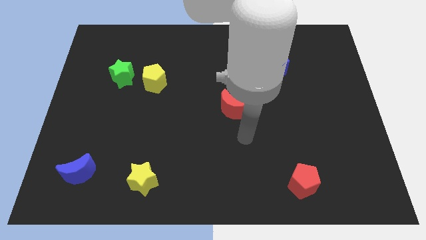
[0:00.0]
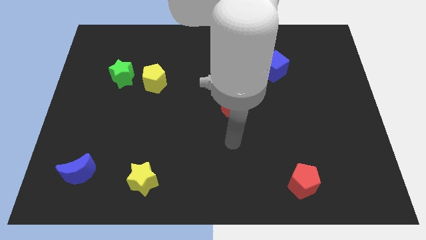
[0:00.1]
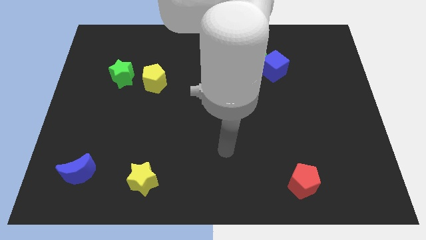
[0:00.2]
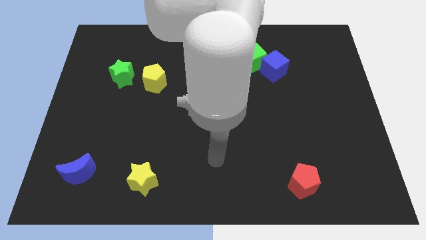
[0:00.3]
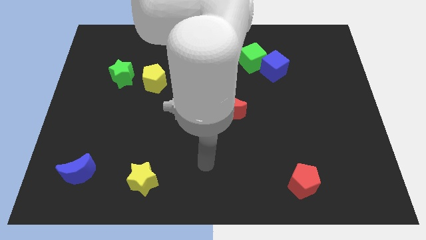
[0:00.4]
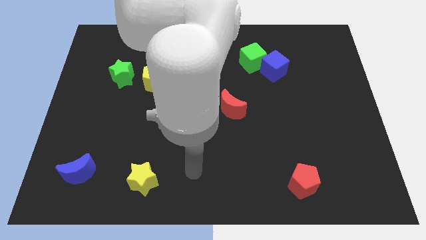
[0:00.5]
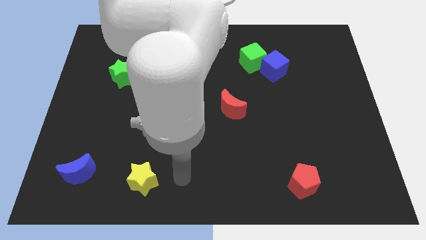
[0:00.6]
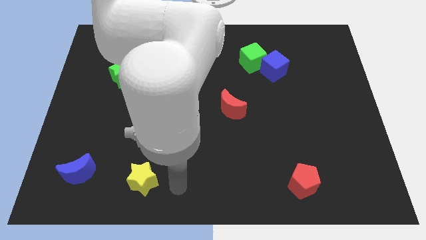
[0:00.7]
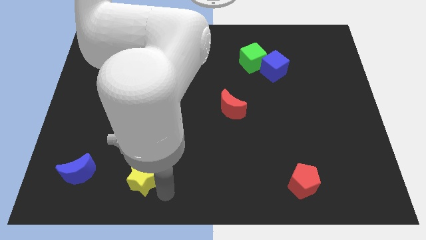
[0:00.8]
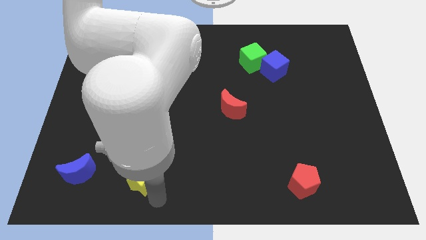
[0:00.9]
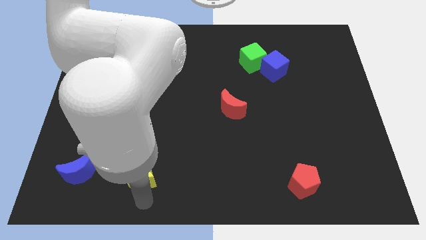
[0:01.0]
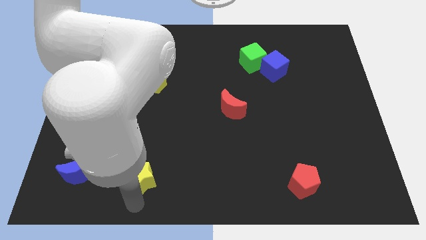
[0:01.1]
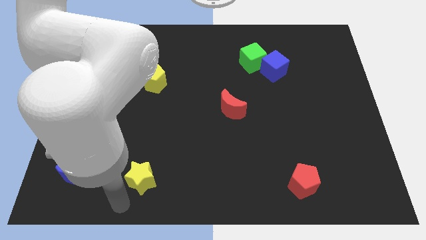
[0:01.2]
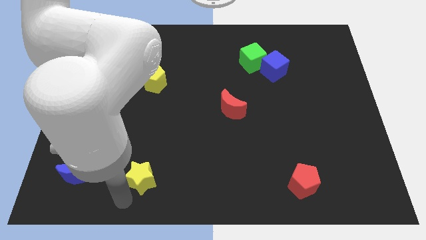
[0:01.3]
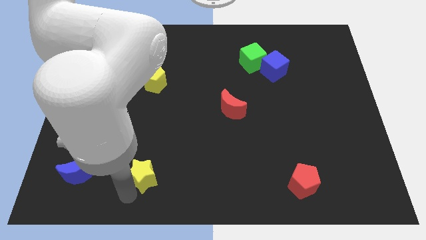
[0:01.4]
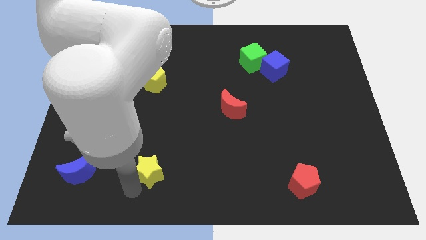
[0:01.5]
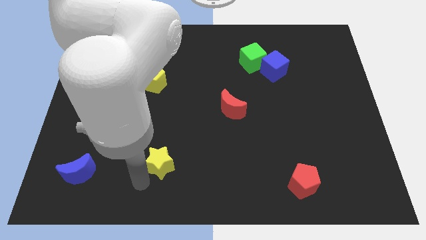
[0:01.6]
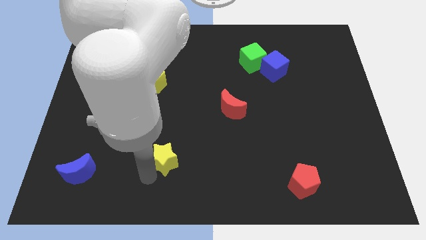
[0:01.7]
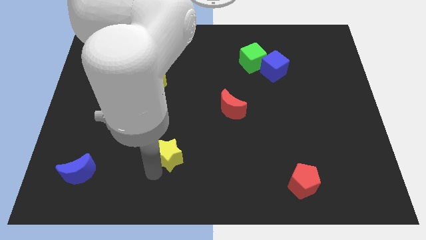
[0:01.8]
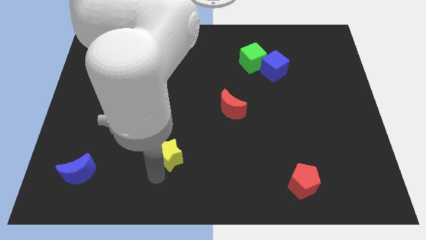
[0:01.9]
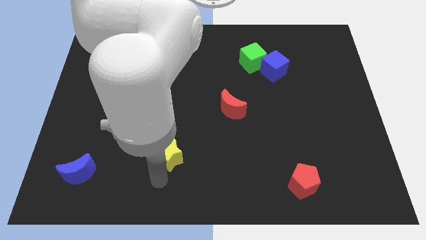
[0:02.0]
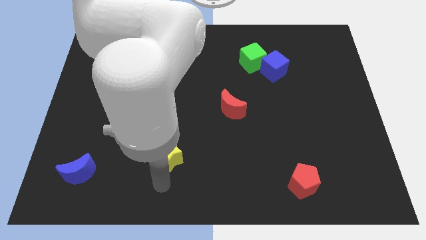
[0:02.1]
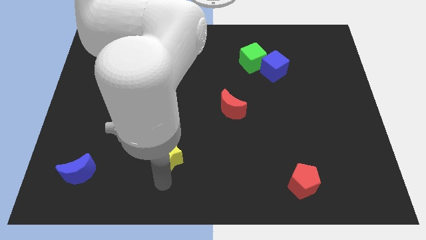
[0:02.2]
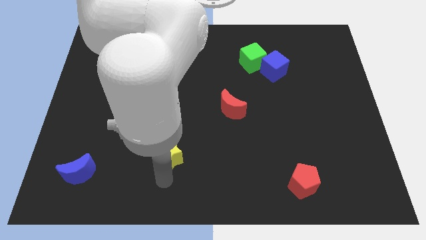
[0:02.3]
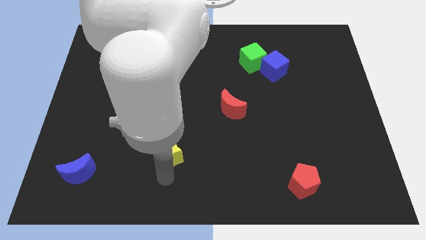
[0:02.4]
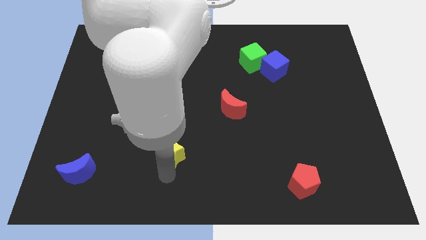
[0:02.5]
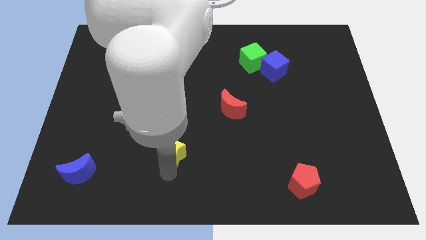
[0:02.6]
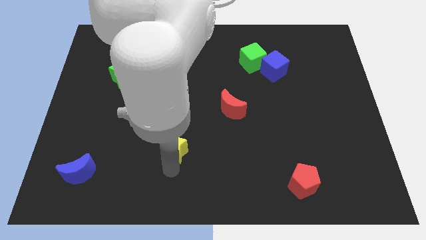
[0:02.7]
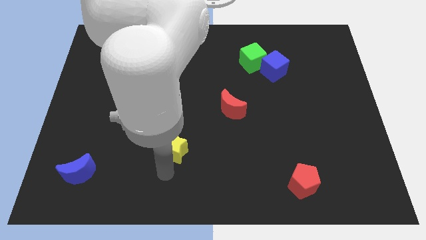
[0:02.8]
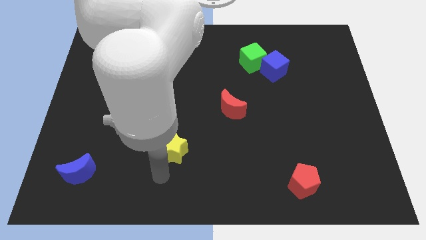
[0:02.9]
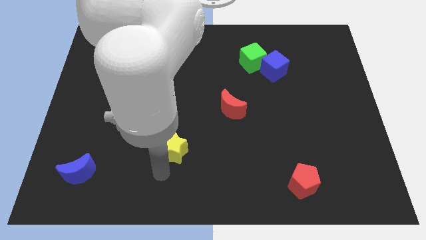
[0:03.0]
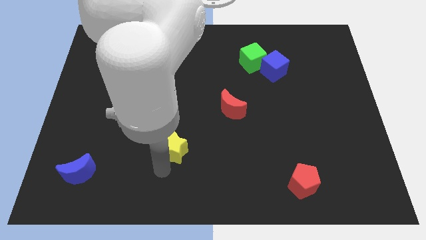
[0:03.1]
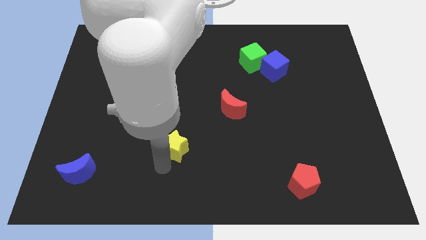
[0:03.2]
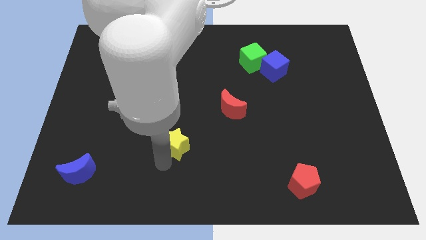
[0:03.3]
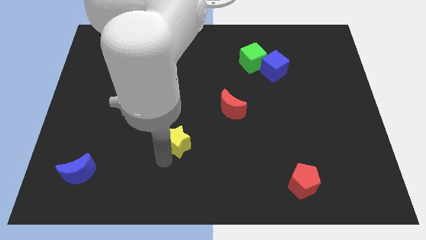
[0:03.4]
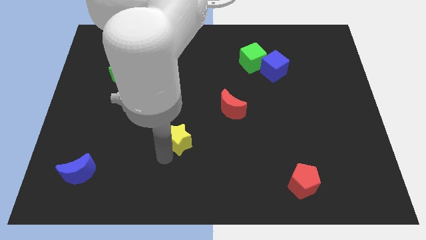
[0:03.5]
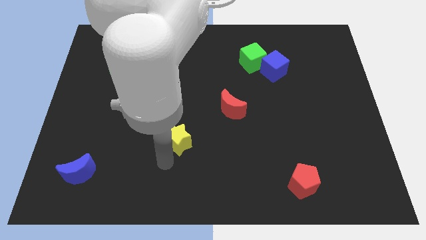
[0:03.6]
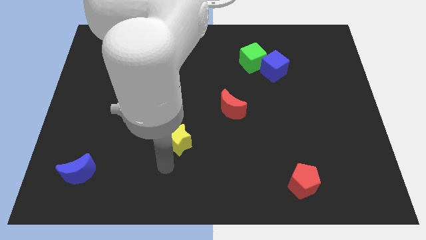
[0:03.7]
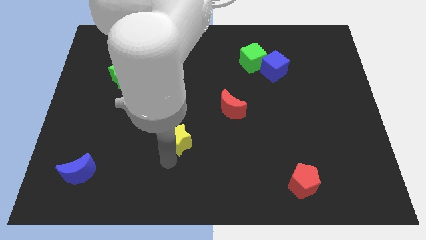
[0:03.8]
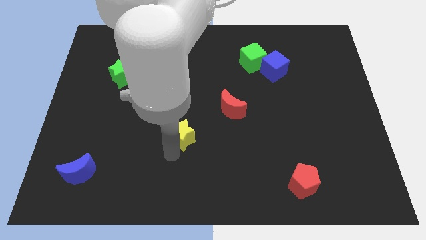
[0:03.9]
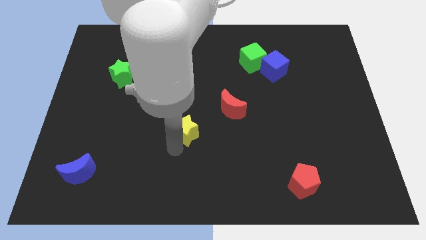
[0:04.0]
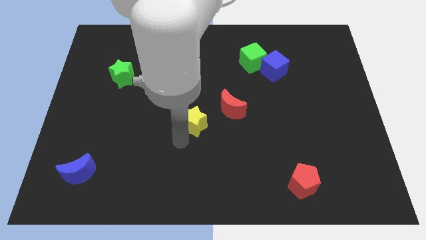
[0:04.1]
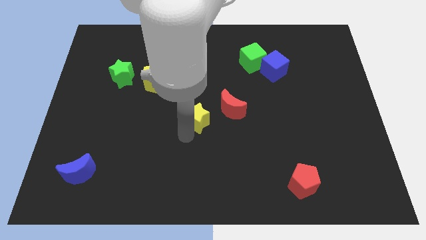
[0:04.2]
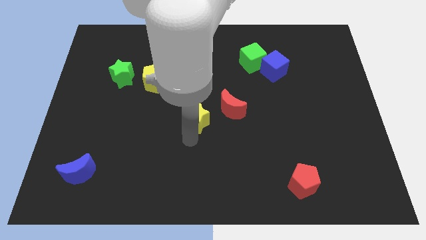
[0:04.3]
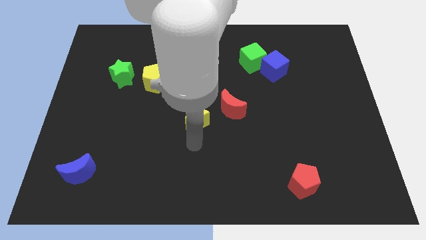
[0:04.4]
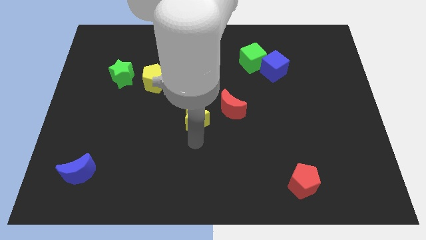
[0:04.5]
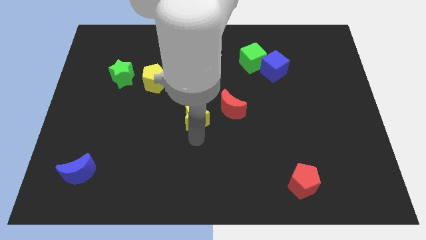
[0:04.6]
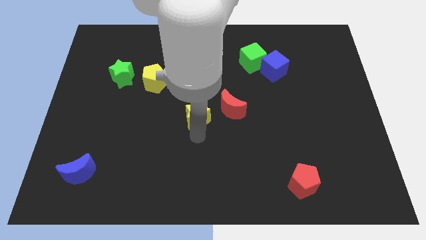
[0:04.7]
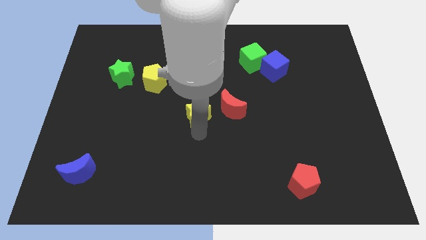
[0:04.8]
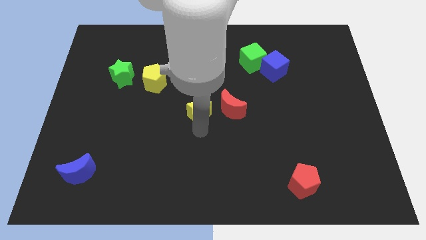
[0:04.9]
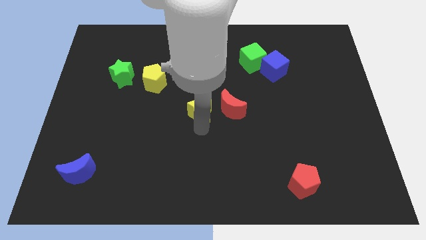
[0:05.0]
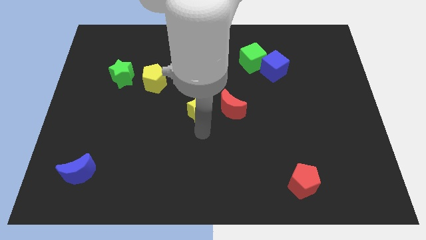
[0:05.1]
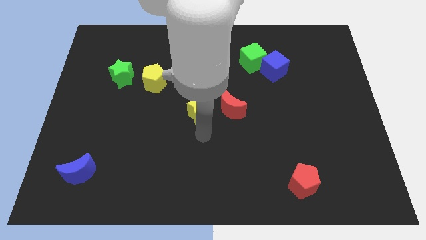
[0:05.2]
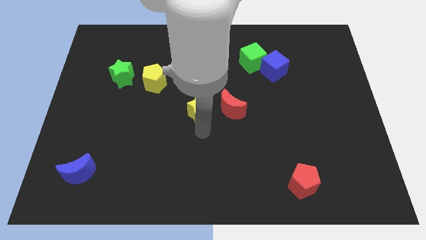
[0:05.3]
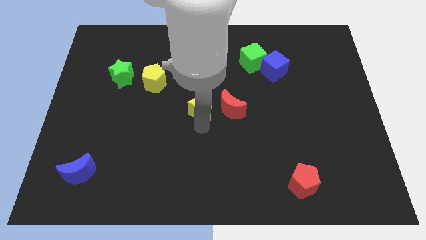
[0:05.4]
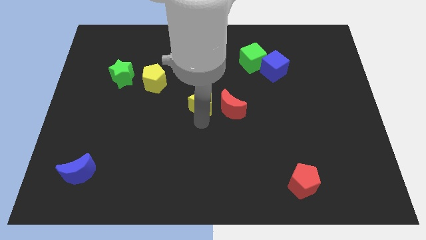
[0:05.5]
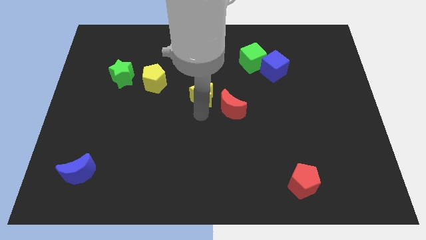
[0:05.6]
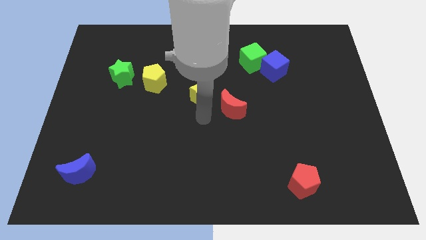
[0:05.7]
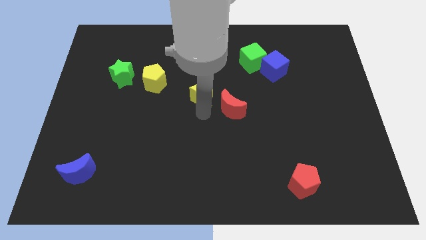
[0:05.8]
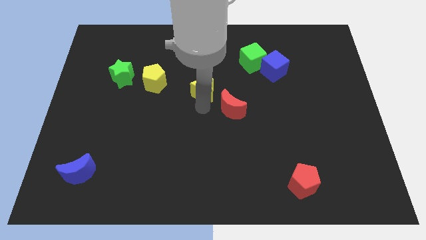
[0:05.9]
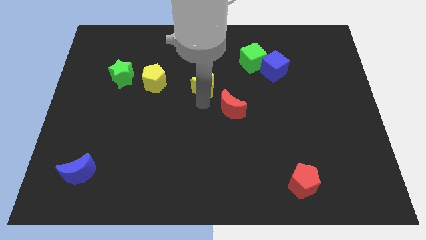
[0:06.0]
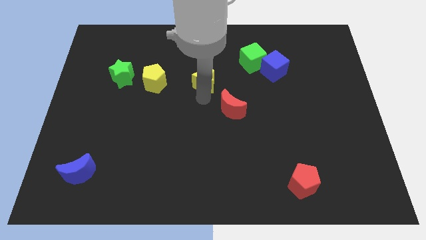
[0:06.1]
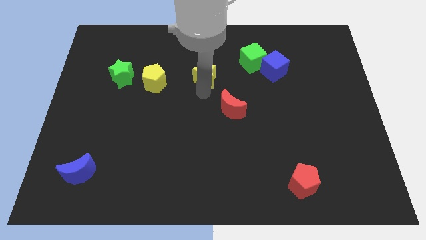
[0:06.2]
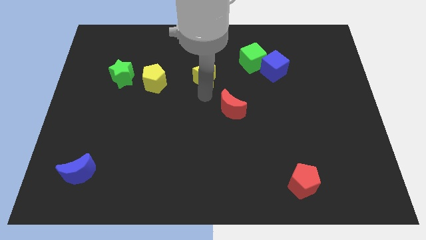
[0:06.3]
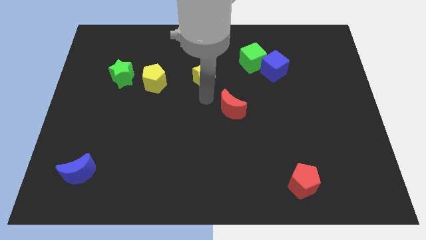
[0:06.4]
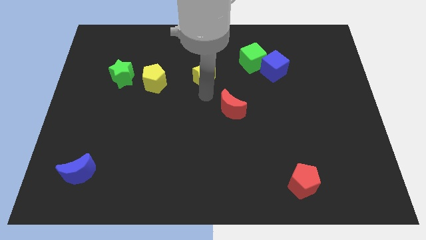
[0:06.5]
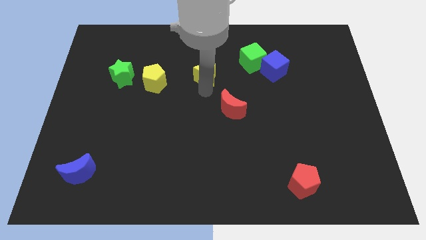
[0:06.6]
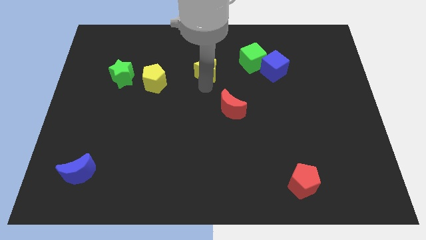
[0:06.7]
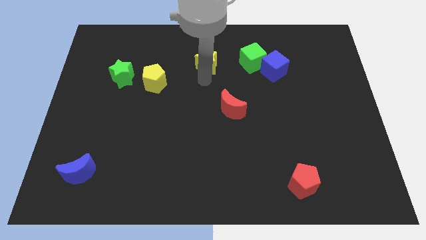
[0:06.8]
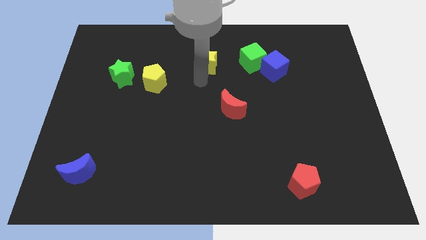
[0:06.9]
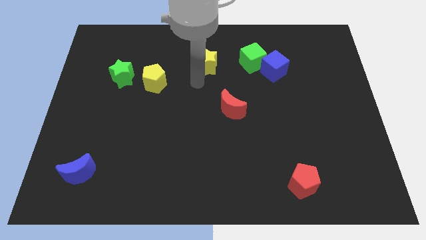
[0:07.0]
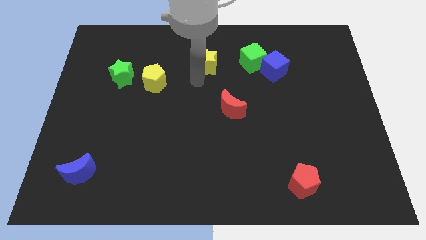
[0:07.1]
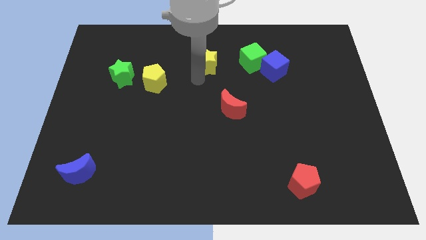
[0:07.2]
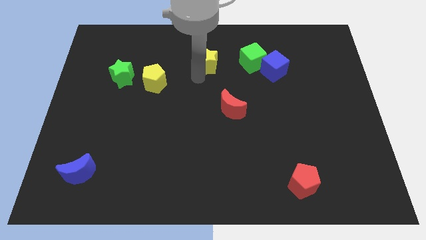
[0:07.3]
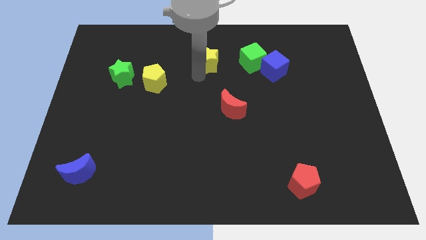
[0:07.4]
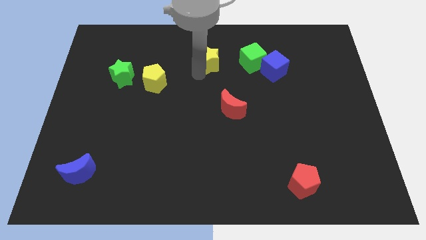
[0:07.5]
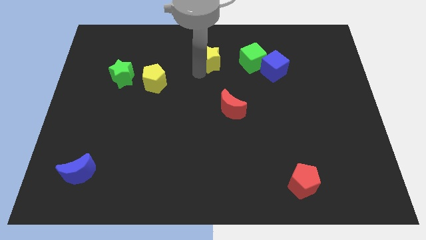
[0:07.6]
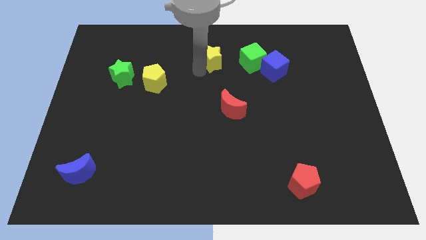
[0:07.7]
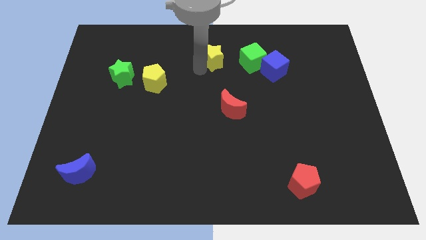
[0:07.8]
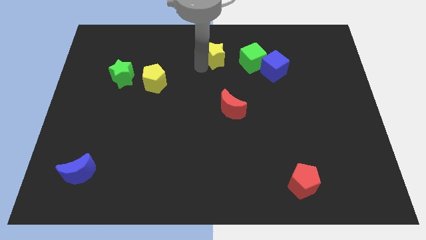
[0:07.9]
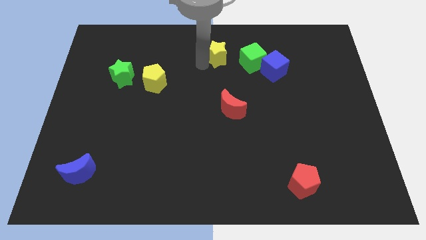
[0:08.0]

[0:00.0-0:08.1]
move the yellow star to the top
